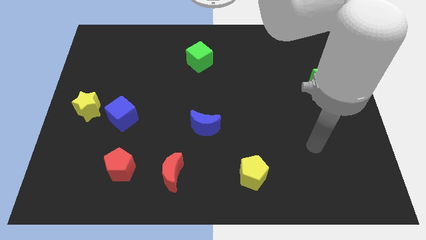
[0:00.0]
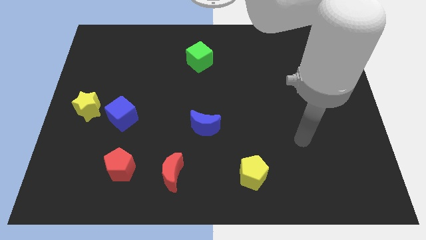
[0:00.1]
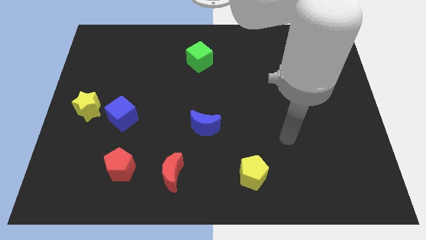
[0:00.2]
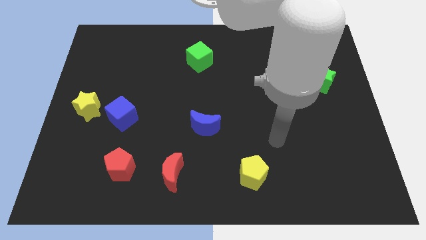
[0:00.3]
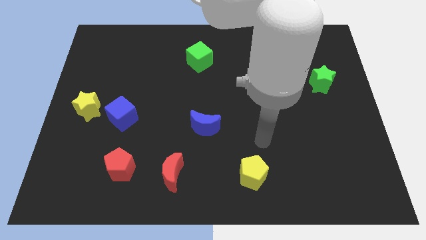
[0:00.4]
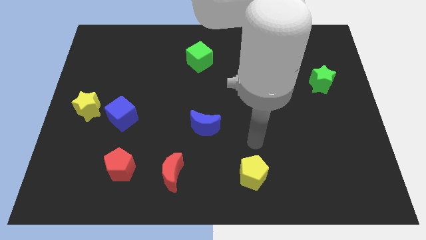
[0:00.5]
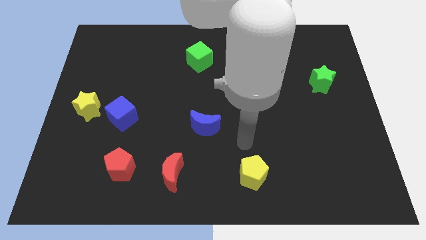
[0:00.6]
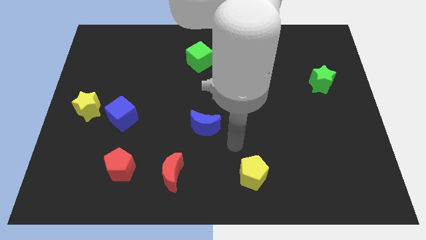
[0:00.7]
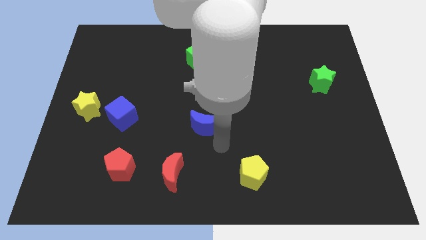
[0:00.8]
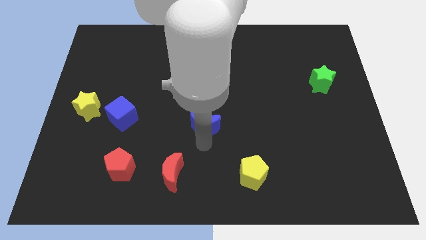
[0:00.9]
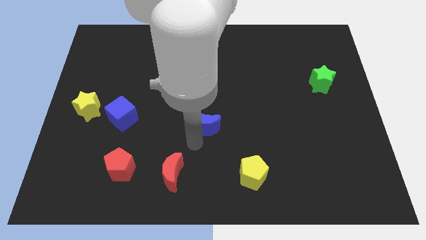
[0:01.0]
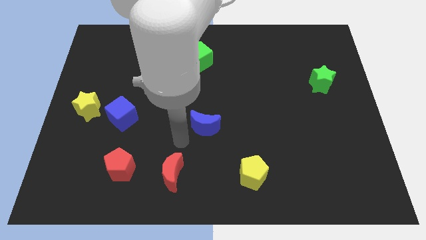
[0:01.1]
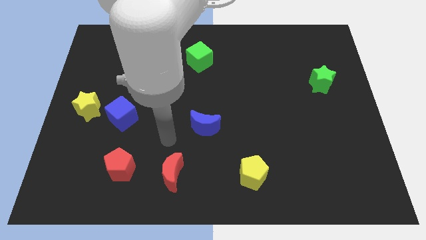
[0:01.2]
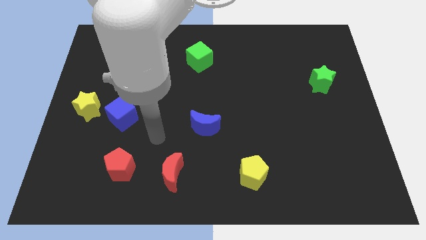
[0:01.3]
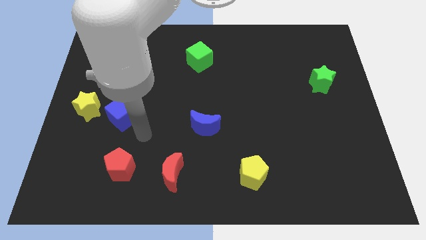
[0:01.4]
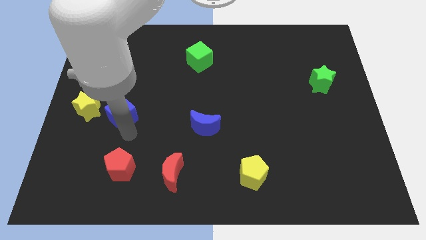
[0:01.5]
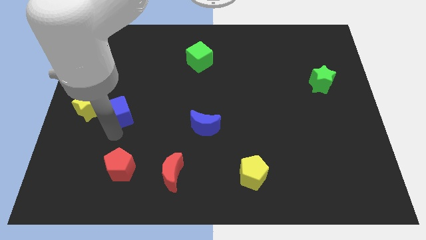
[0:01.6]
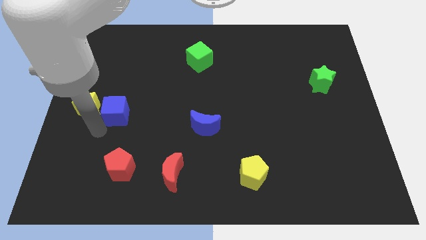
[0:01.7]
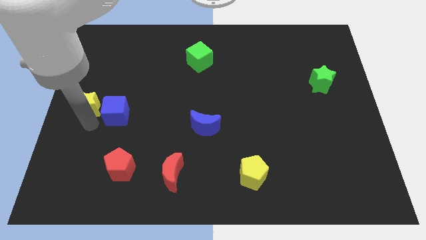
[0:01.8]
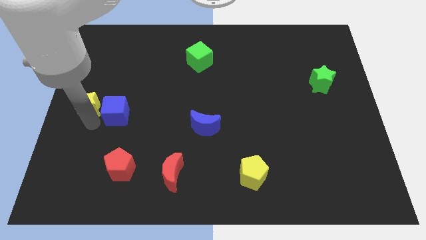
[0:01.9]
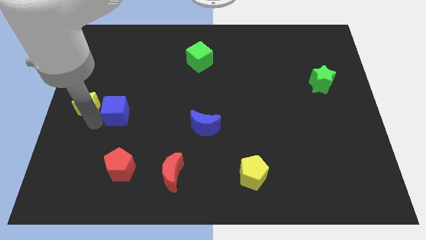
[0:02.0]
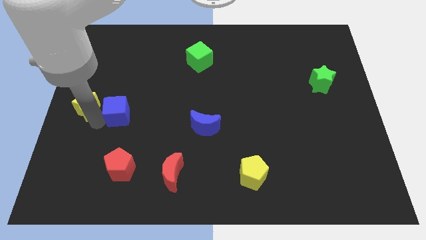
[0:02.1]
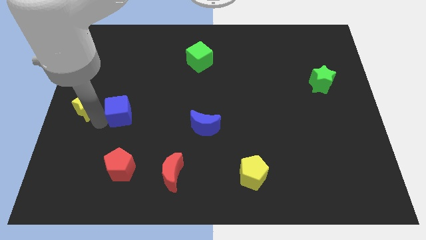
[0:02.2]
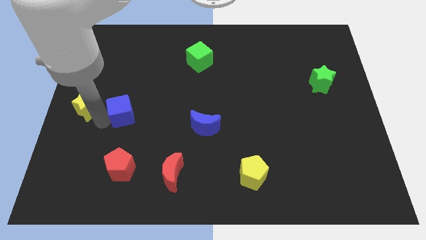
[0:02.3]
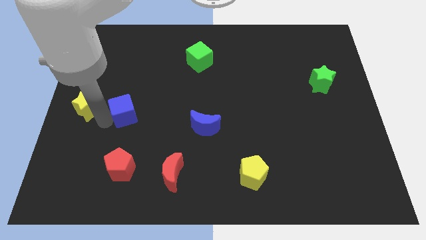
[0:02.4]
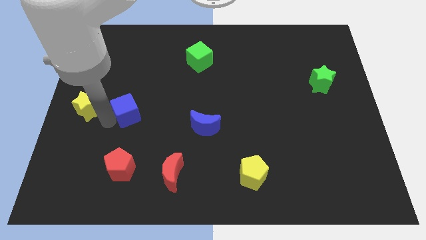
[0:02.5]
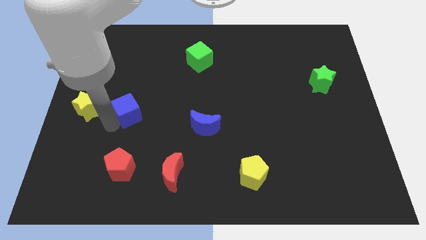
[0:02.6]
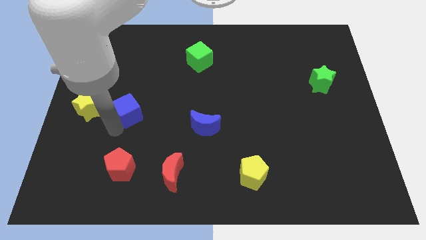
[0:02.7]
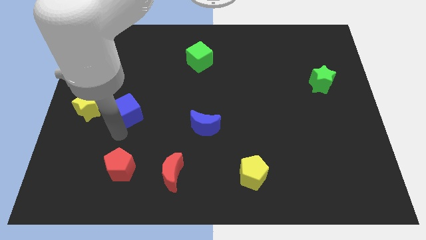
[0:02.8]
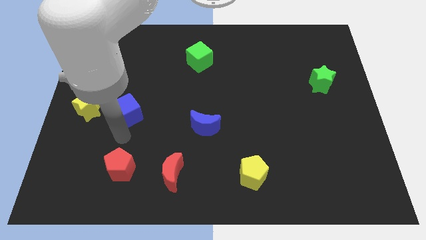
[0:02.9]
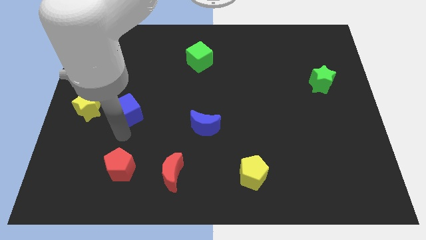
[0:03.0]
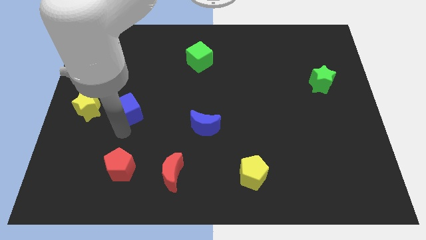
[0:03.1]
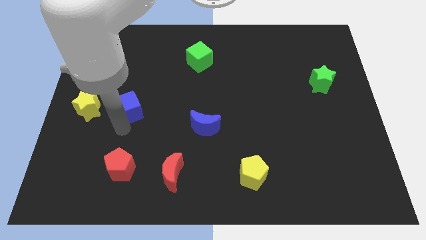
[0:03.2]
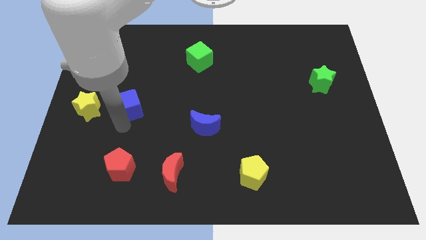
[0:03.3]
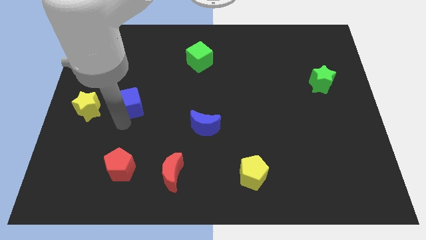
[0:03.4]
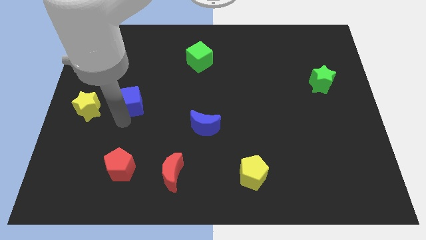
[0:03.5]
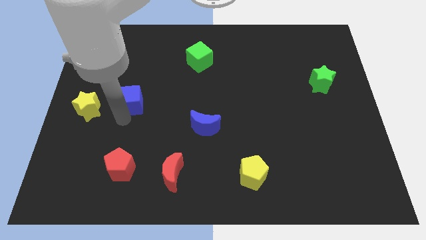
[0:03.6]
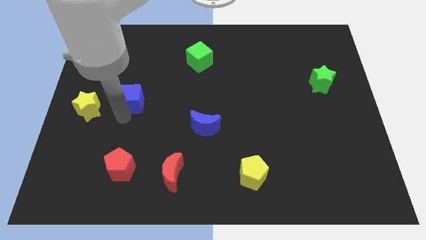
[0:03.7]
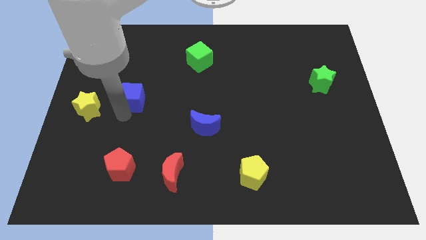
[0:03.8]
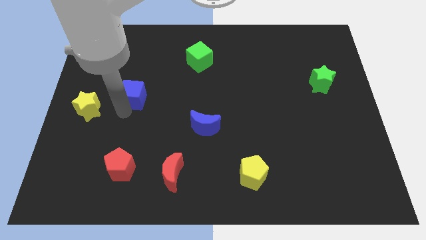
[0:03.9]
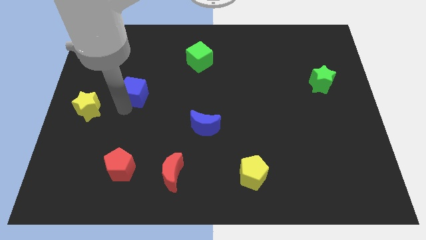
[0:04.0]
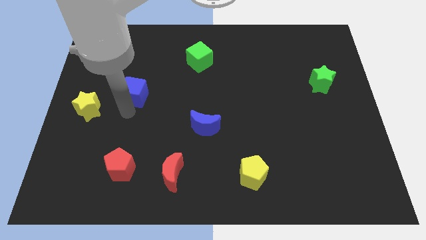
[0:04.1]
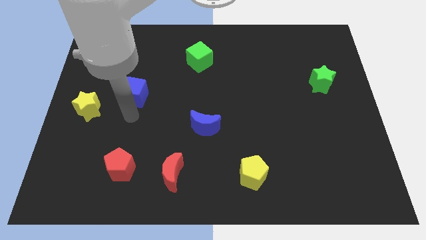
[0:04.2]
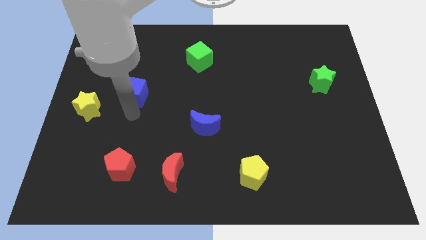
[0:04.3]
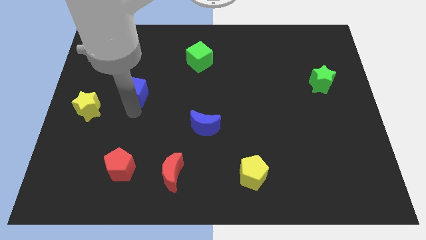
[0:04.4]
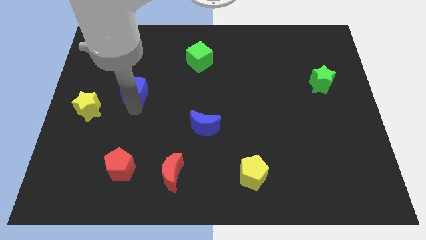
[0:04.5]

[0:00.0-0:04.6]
push the blue cube upwards slightly

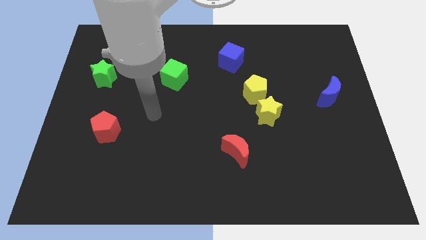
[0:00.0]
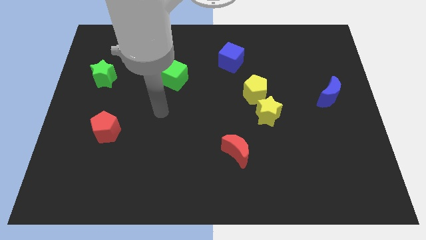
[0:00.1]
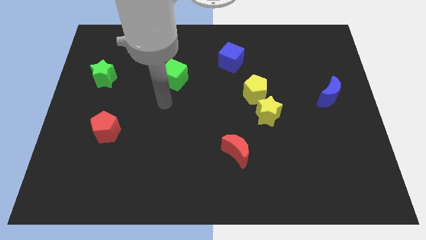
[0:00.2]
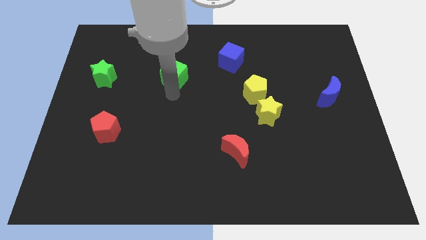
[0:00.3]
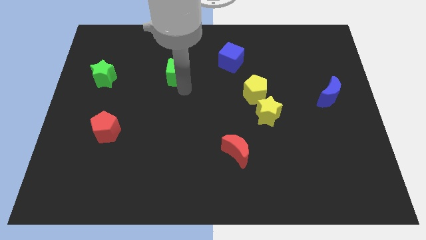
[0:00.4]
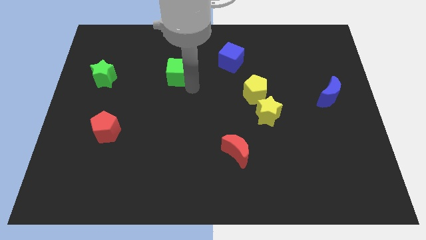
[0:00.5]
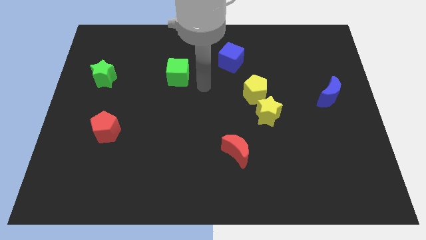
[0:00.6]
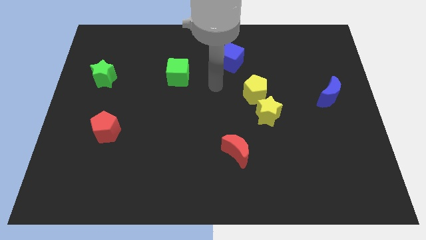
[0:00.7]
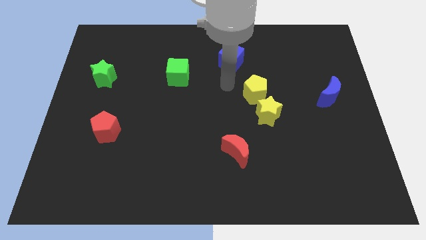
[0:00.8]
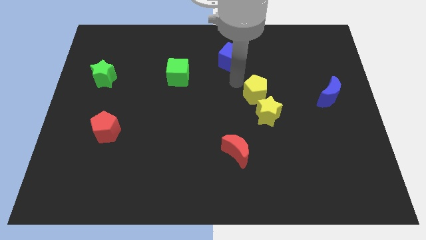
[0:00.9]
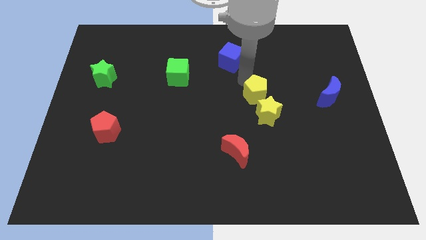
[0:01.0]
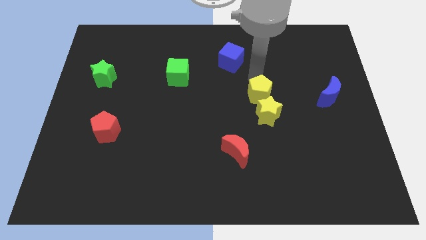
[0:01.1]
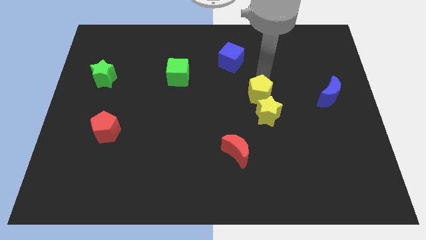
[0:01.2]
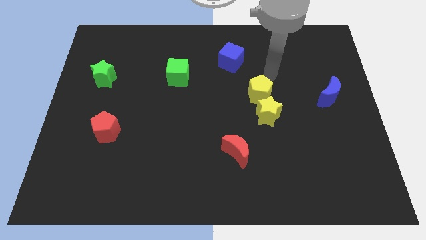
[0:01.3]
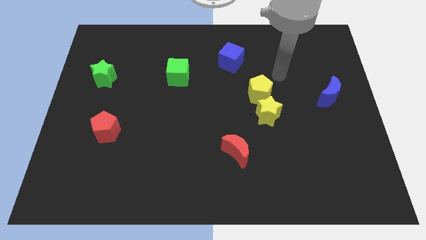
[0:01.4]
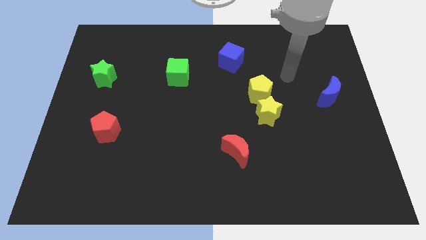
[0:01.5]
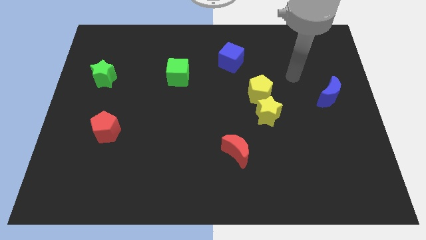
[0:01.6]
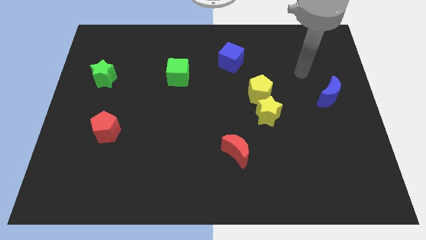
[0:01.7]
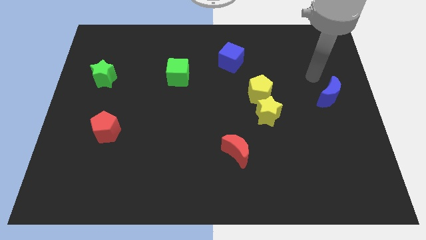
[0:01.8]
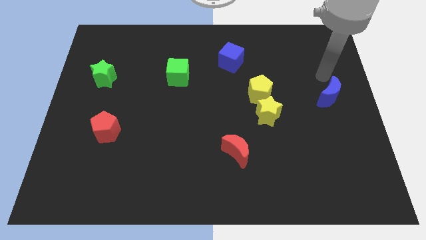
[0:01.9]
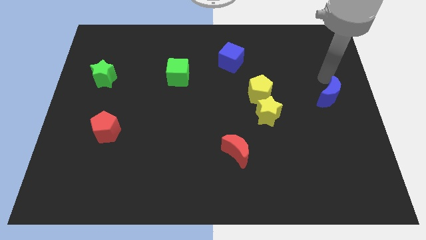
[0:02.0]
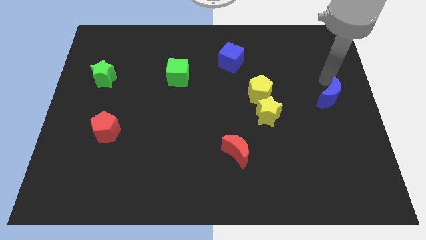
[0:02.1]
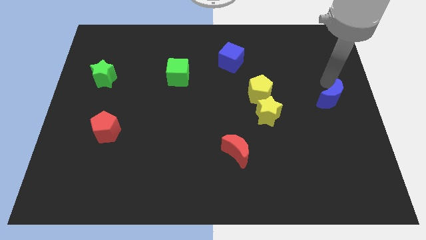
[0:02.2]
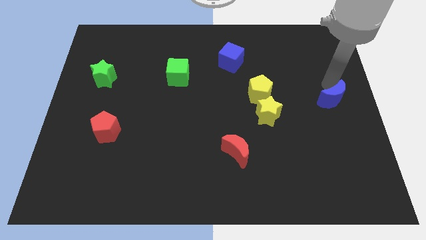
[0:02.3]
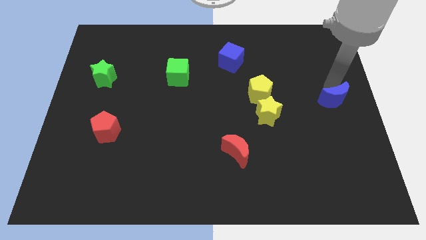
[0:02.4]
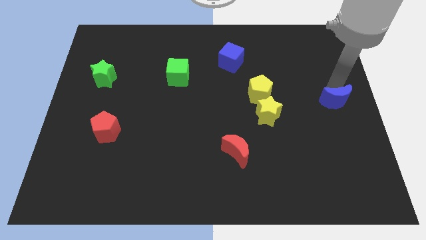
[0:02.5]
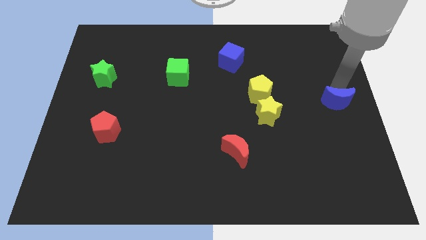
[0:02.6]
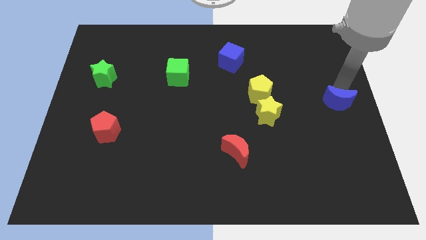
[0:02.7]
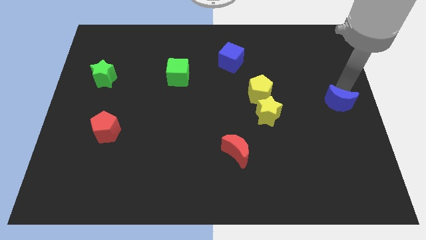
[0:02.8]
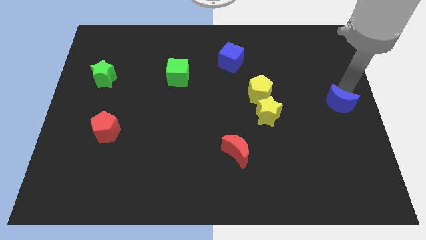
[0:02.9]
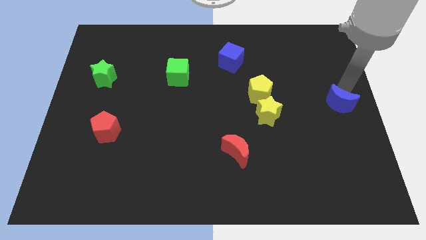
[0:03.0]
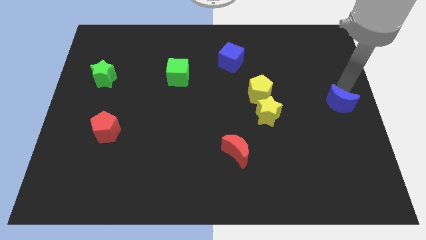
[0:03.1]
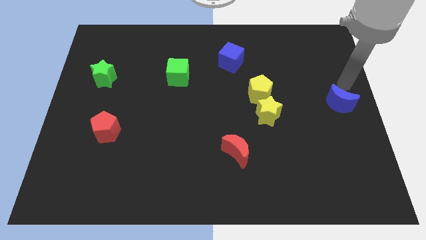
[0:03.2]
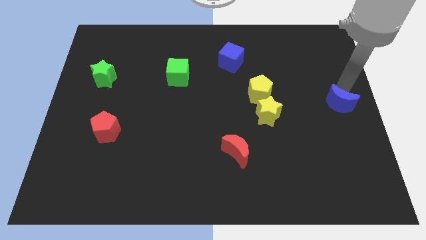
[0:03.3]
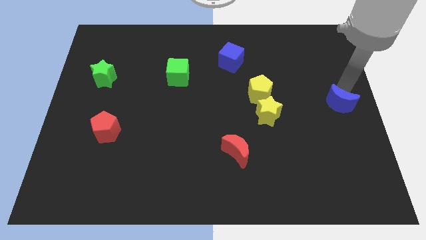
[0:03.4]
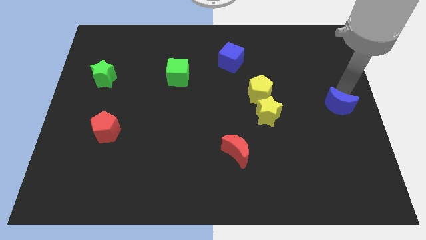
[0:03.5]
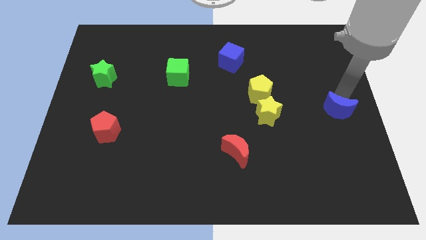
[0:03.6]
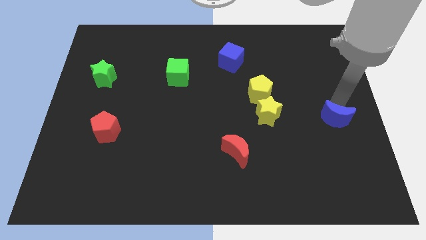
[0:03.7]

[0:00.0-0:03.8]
move the blue moon down a bit
